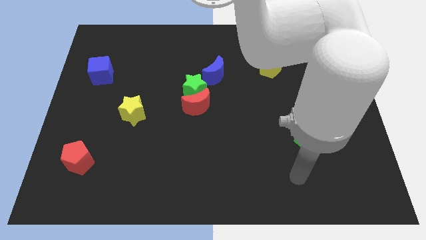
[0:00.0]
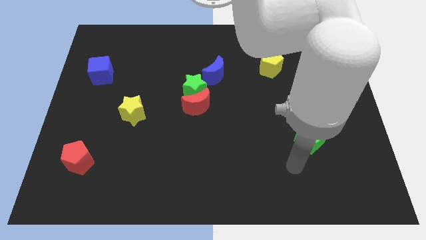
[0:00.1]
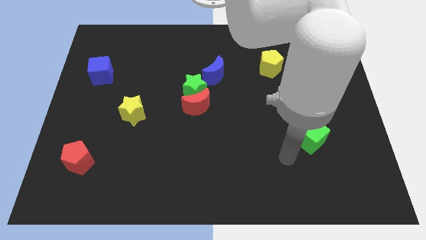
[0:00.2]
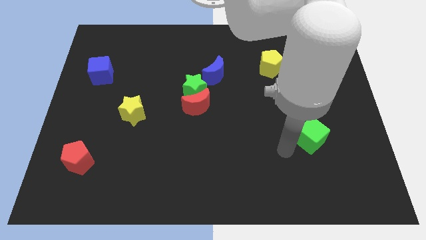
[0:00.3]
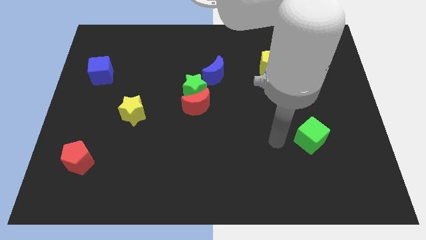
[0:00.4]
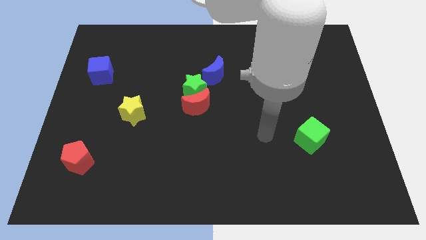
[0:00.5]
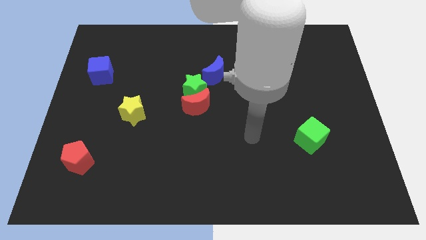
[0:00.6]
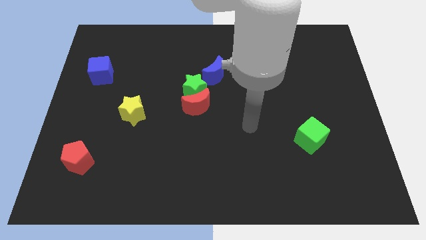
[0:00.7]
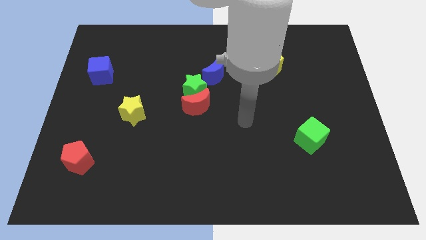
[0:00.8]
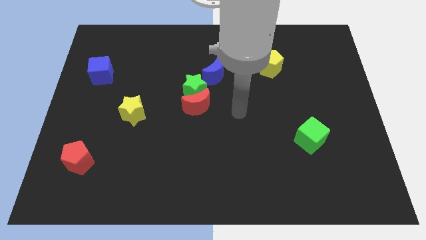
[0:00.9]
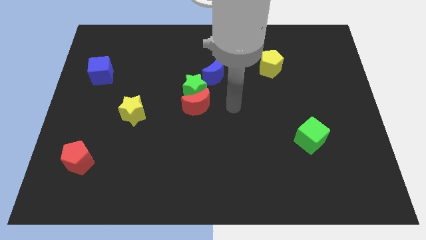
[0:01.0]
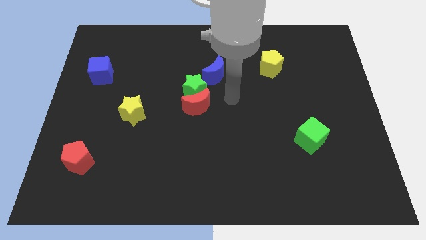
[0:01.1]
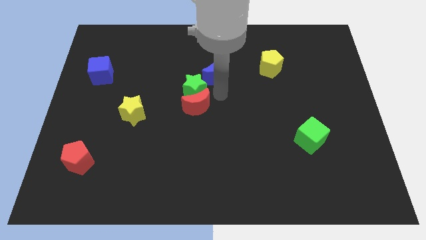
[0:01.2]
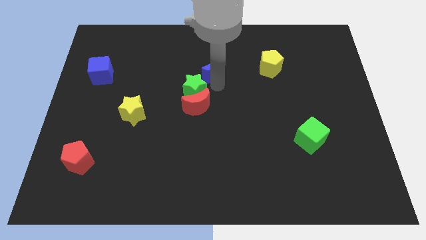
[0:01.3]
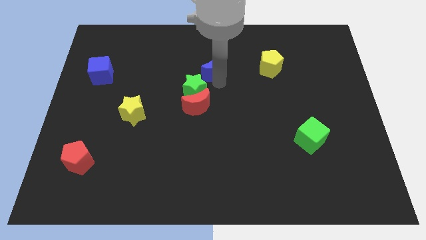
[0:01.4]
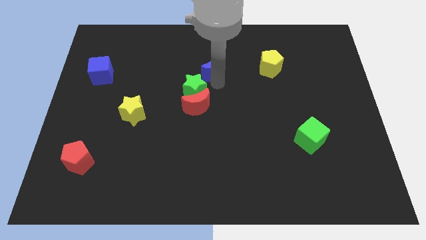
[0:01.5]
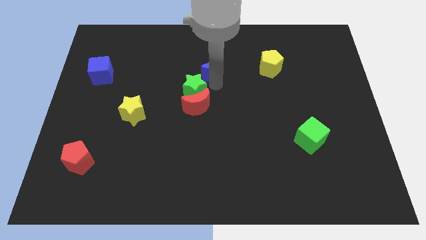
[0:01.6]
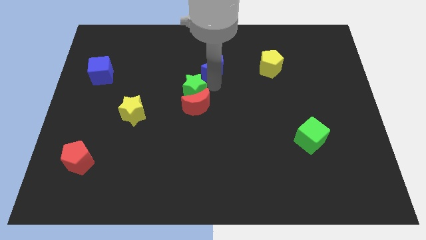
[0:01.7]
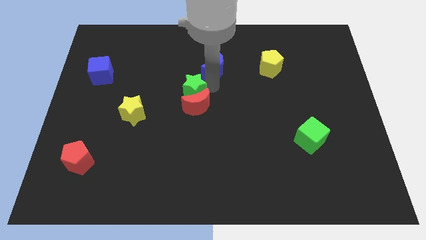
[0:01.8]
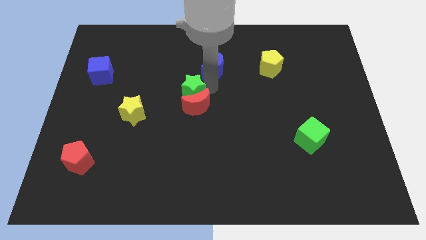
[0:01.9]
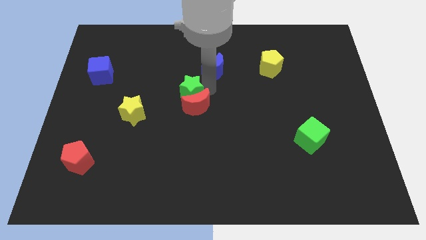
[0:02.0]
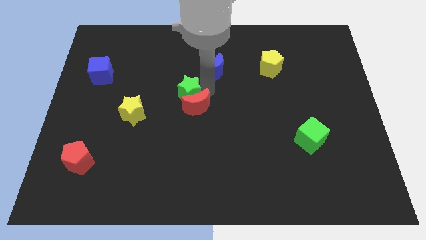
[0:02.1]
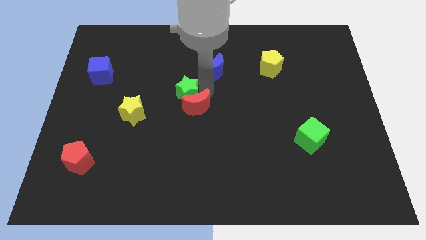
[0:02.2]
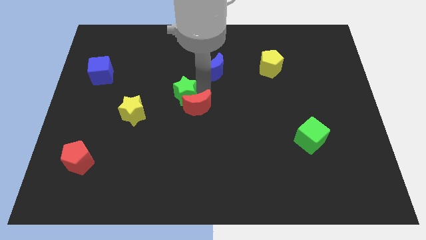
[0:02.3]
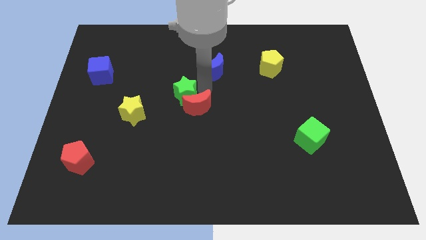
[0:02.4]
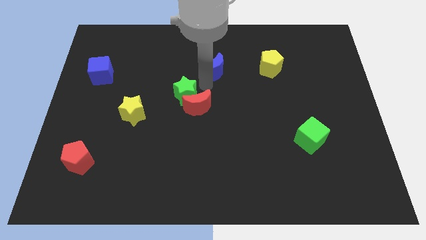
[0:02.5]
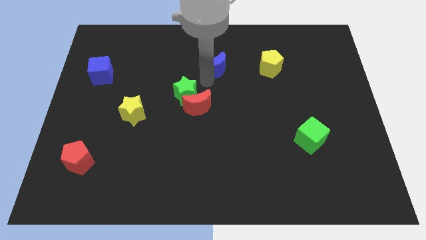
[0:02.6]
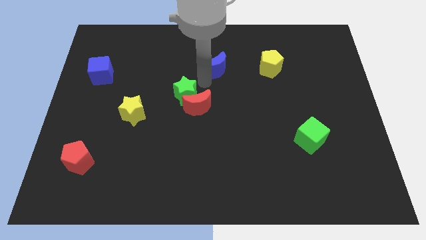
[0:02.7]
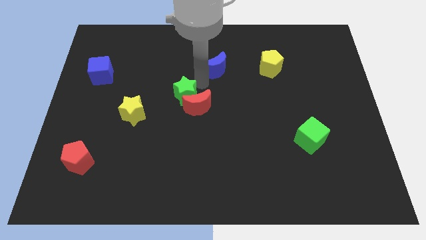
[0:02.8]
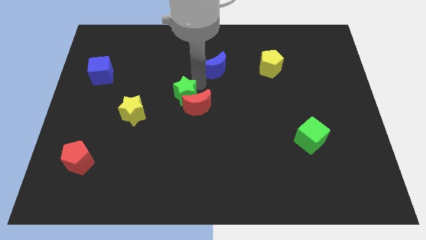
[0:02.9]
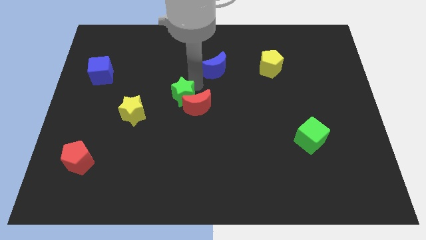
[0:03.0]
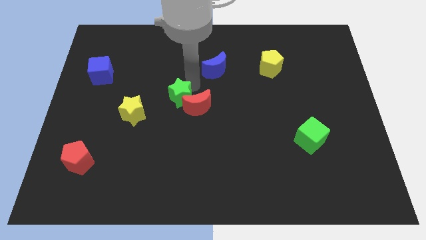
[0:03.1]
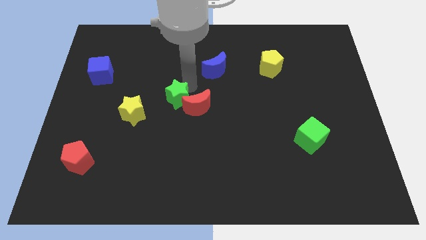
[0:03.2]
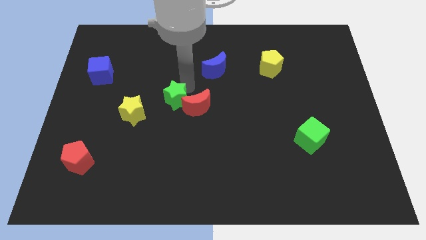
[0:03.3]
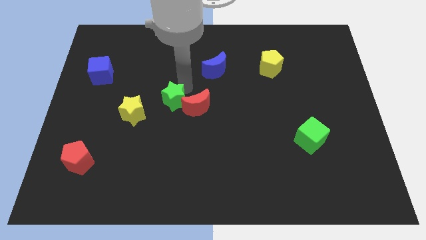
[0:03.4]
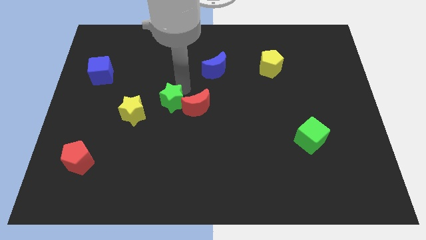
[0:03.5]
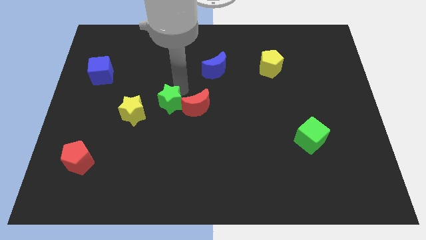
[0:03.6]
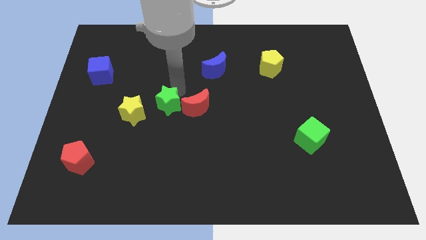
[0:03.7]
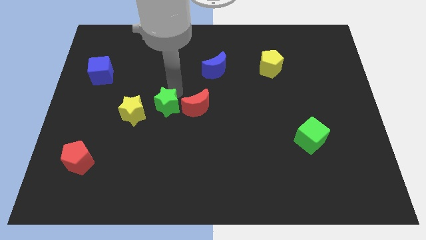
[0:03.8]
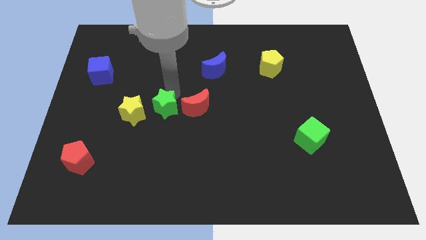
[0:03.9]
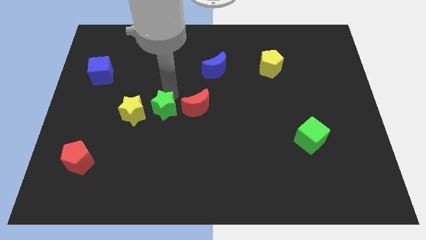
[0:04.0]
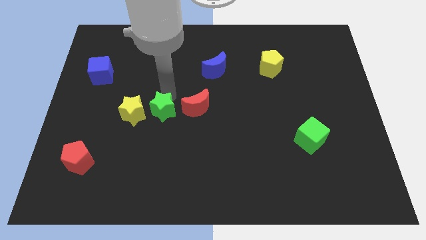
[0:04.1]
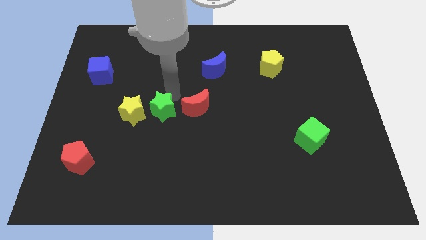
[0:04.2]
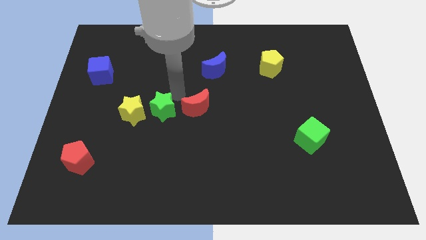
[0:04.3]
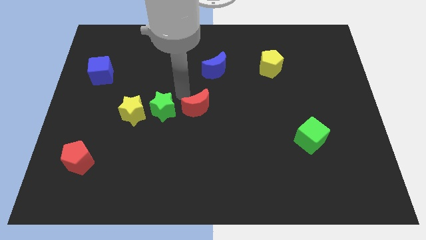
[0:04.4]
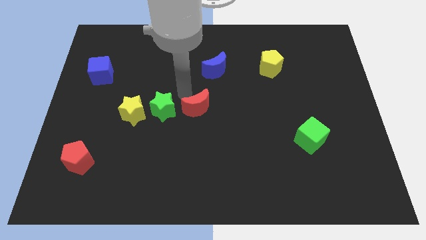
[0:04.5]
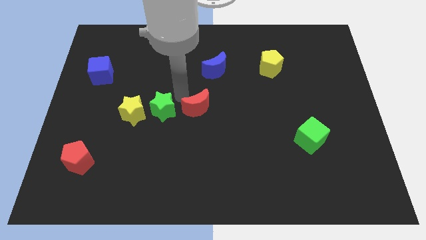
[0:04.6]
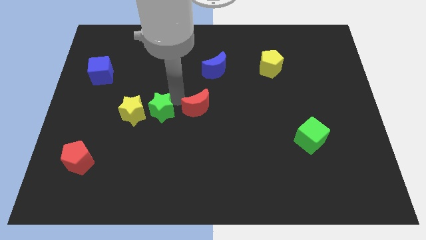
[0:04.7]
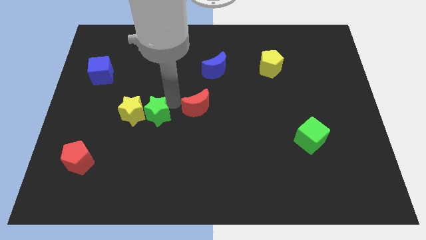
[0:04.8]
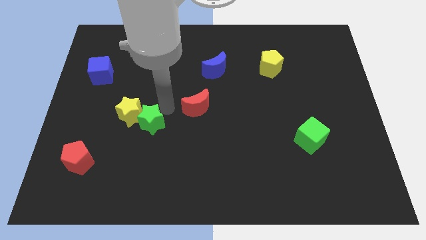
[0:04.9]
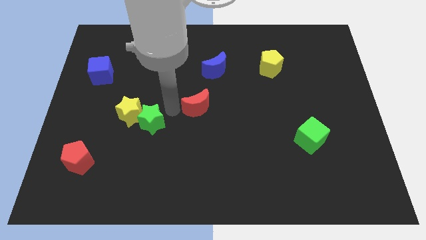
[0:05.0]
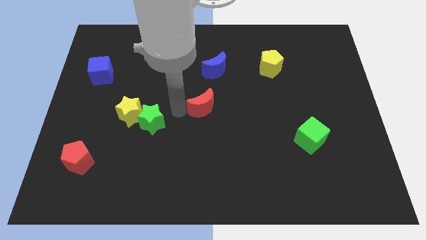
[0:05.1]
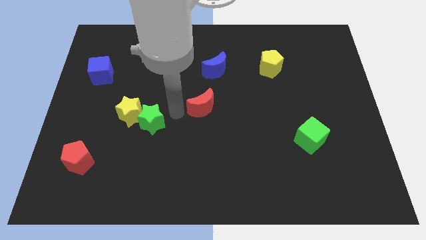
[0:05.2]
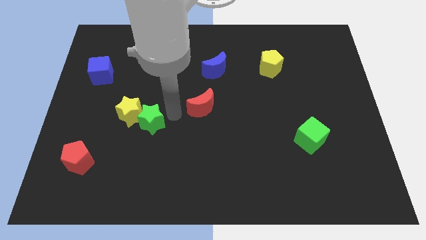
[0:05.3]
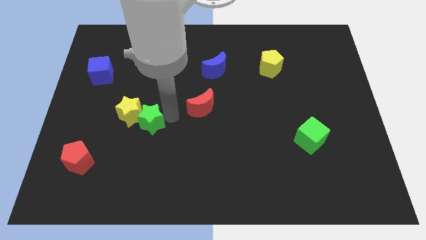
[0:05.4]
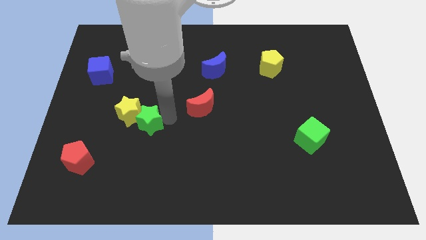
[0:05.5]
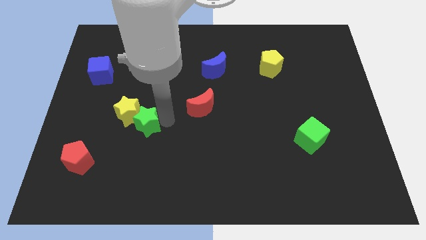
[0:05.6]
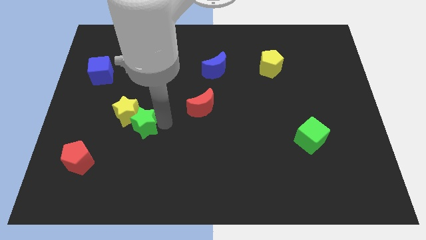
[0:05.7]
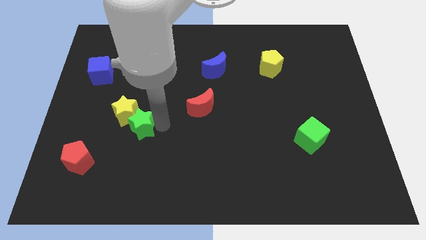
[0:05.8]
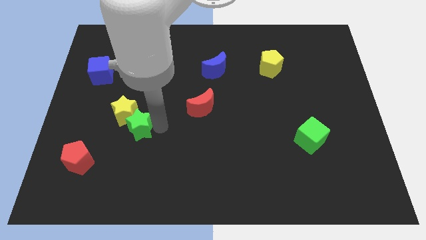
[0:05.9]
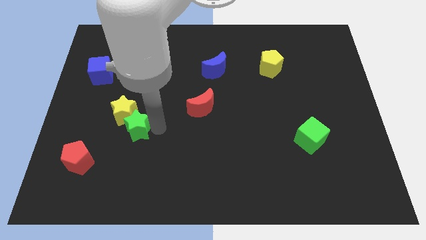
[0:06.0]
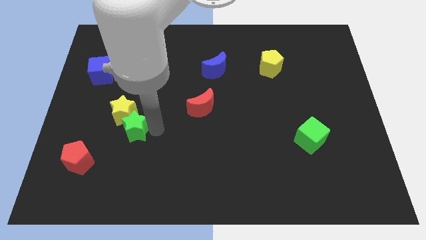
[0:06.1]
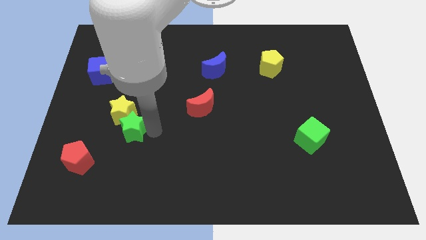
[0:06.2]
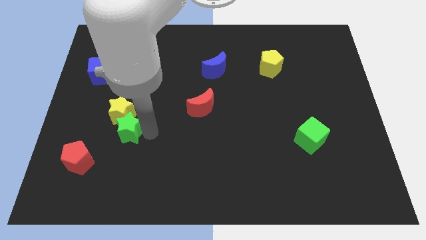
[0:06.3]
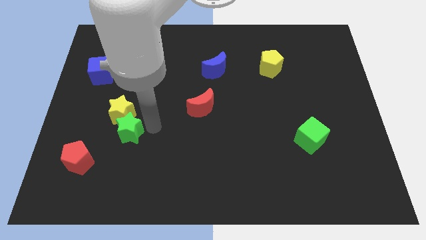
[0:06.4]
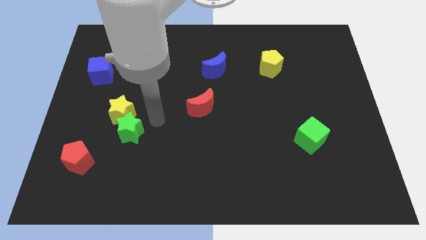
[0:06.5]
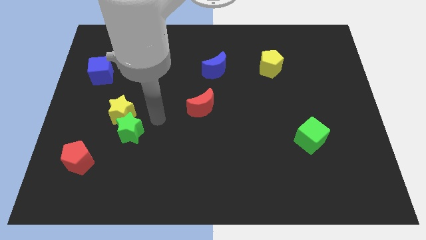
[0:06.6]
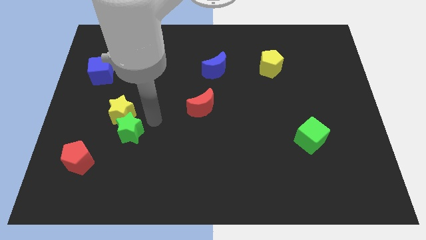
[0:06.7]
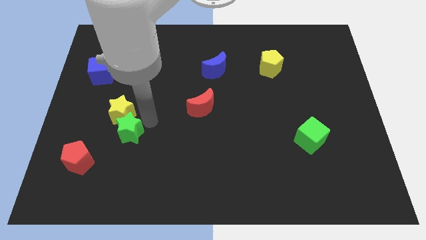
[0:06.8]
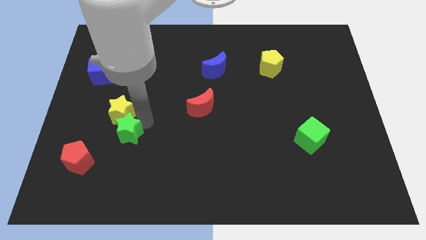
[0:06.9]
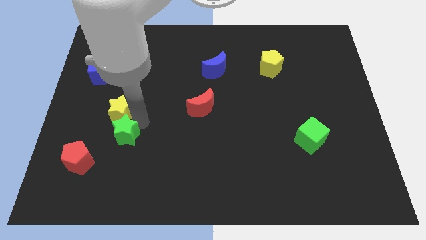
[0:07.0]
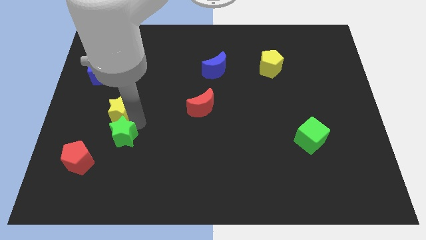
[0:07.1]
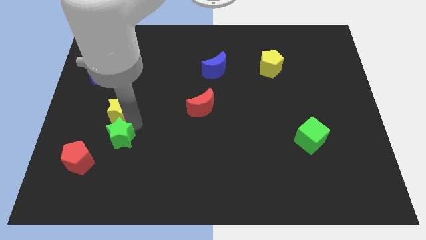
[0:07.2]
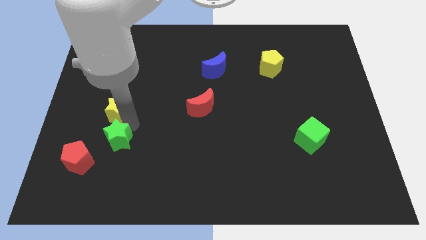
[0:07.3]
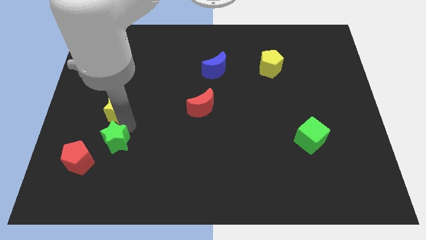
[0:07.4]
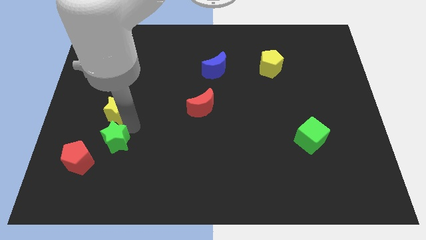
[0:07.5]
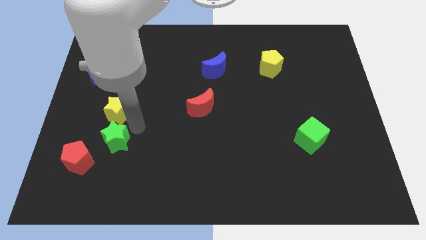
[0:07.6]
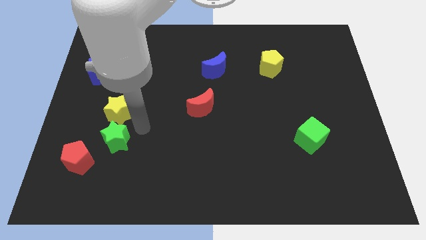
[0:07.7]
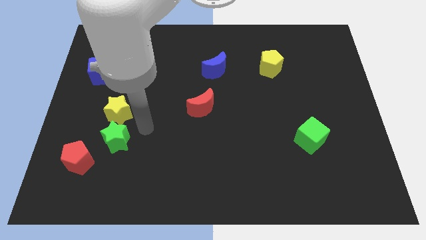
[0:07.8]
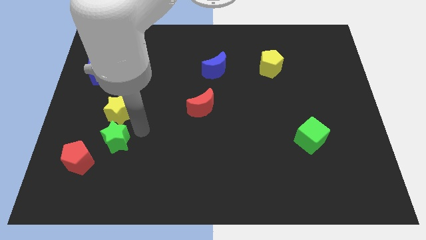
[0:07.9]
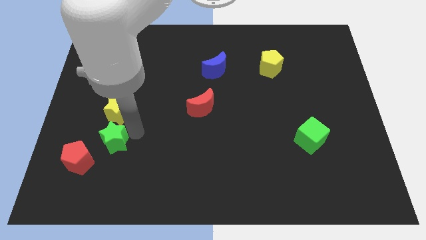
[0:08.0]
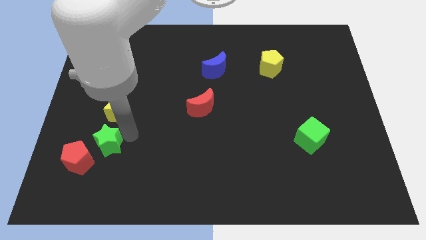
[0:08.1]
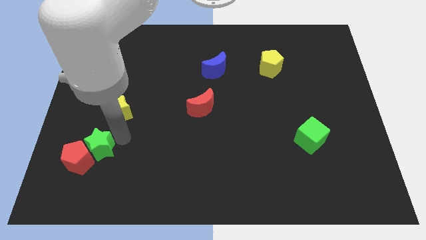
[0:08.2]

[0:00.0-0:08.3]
move the green star next to the red pentagon
